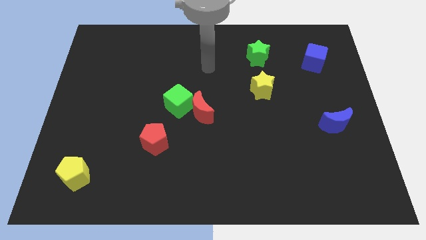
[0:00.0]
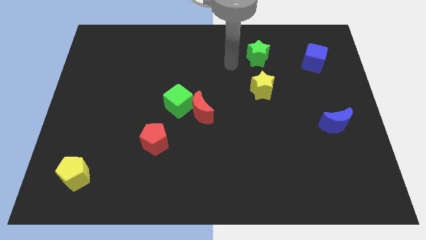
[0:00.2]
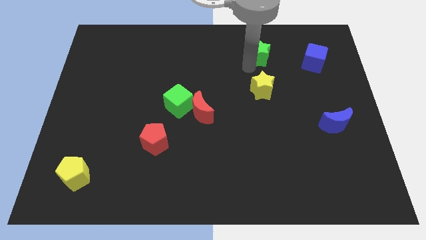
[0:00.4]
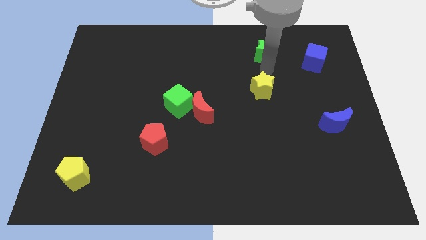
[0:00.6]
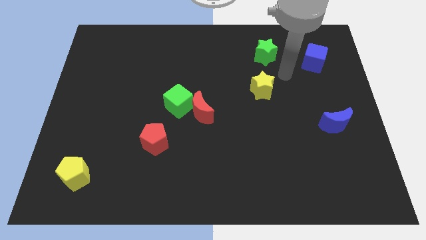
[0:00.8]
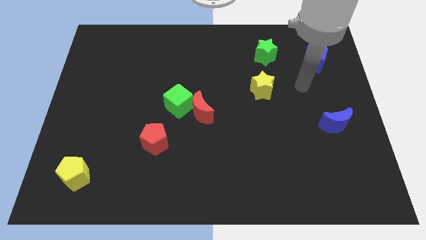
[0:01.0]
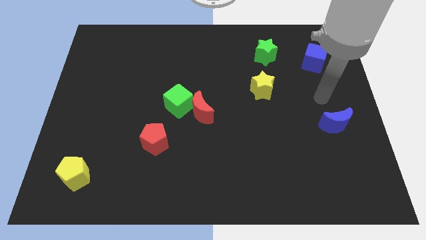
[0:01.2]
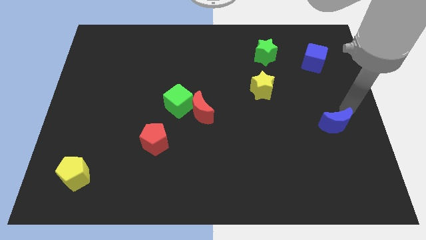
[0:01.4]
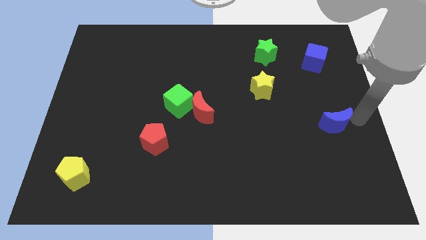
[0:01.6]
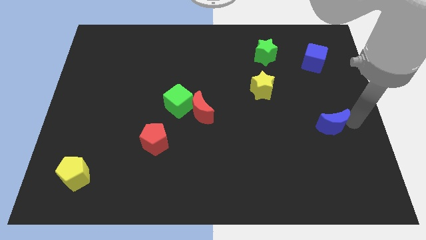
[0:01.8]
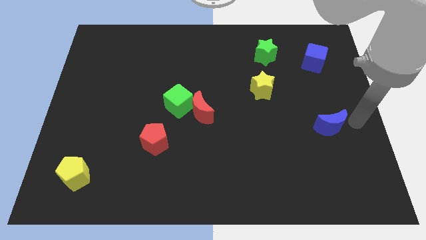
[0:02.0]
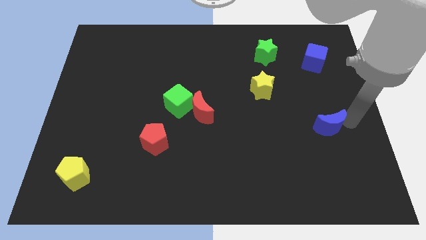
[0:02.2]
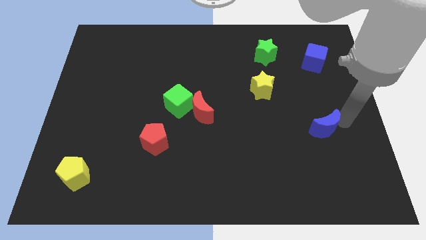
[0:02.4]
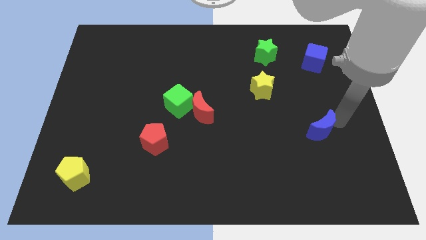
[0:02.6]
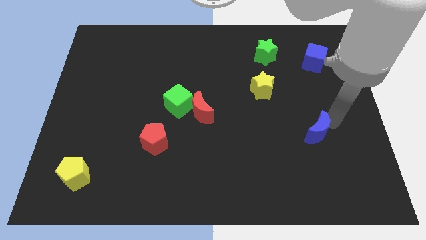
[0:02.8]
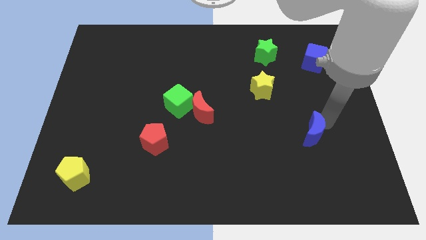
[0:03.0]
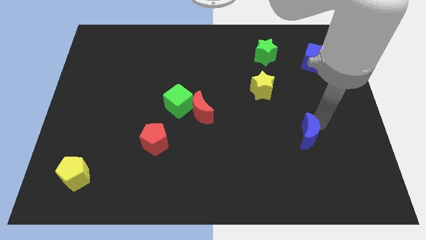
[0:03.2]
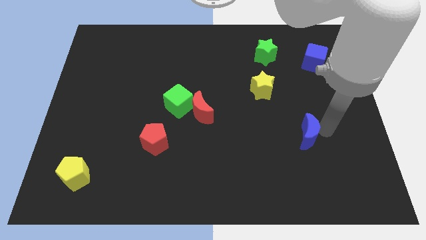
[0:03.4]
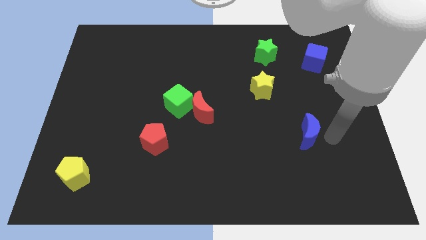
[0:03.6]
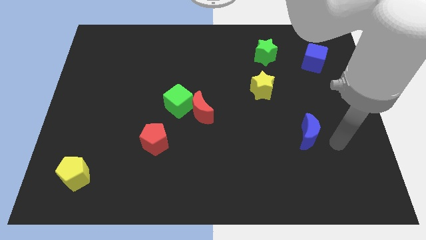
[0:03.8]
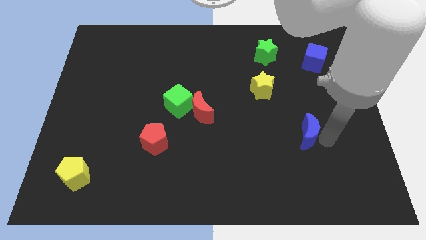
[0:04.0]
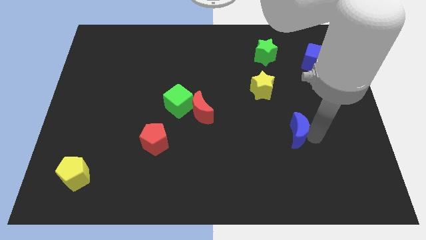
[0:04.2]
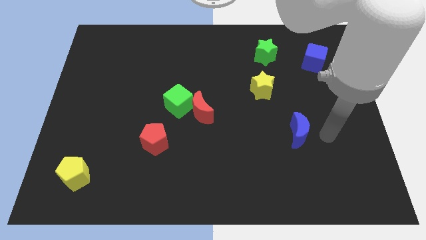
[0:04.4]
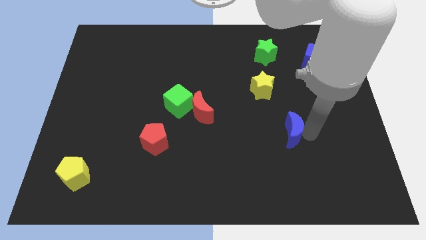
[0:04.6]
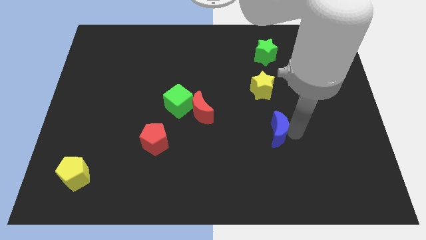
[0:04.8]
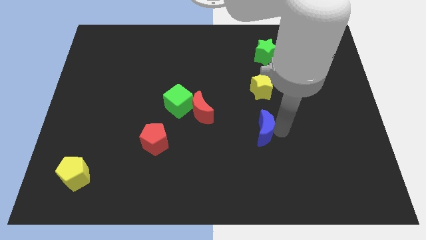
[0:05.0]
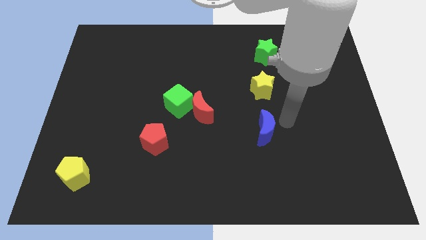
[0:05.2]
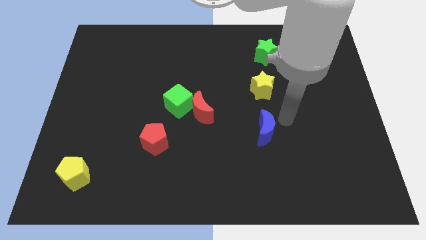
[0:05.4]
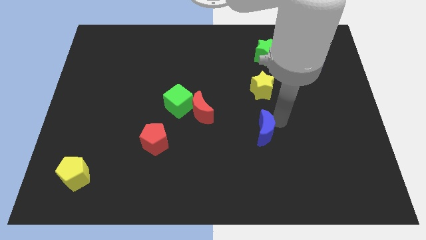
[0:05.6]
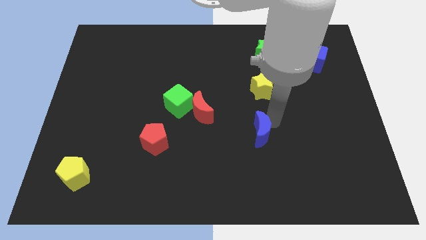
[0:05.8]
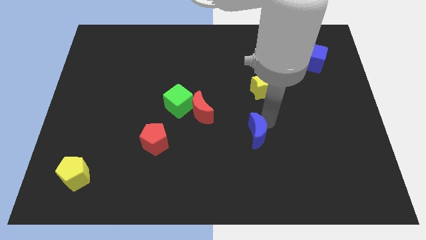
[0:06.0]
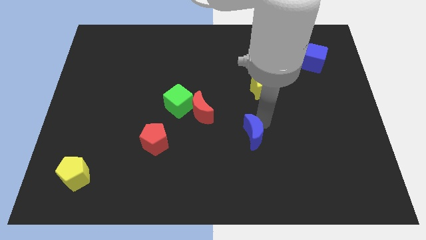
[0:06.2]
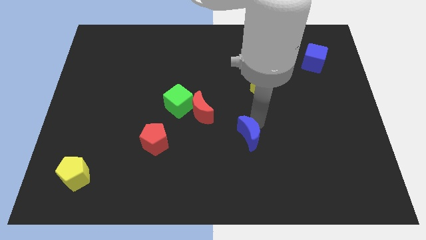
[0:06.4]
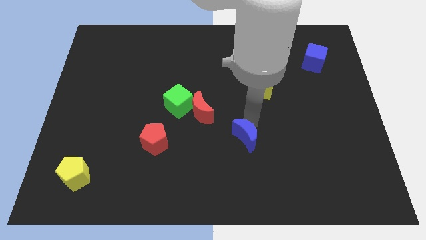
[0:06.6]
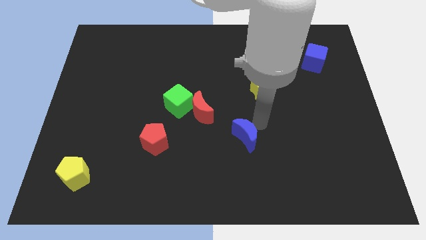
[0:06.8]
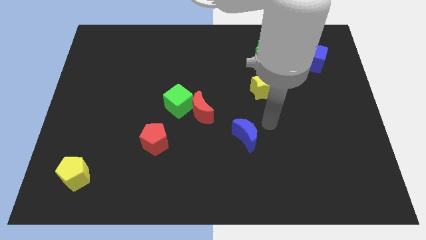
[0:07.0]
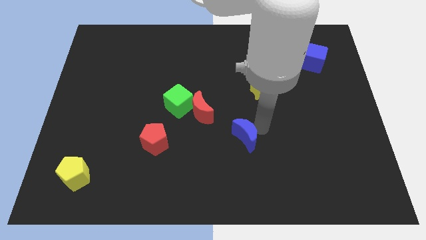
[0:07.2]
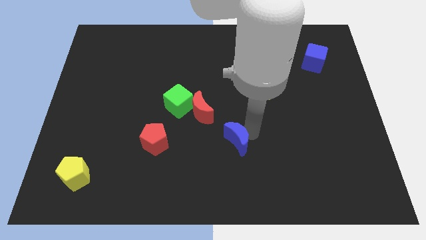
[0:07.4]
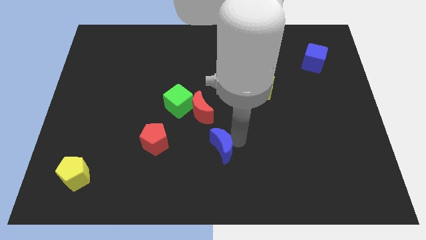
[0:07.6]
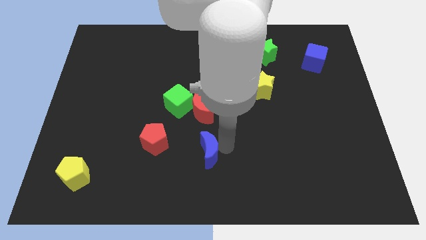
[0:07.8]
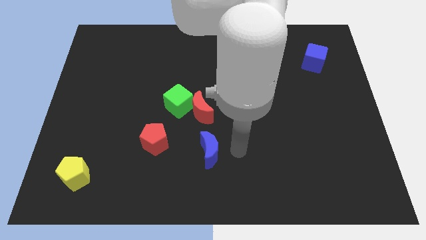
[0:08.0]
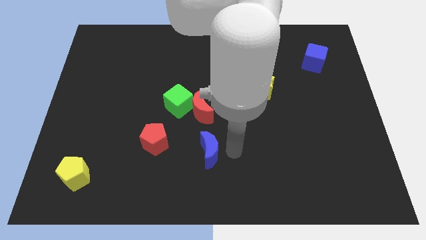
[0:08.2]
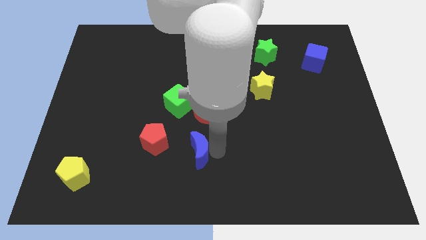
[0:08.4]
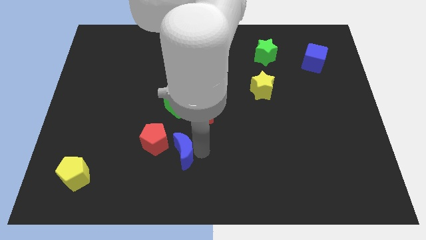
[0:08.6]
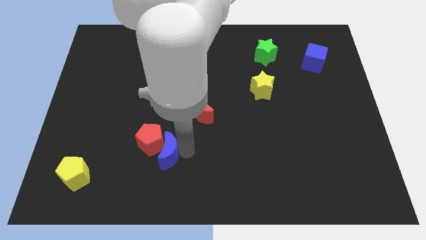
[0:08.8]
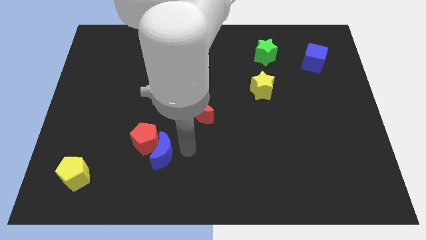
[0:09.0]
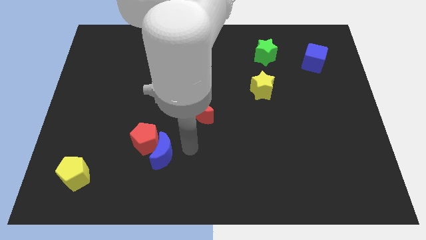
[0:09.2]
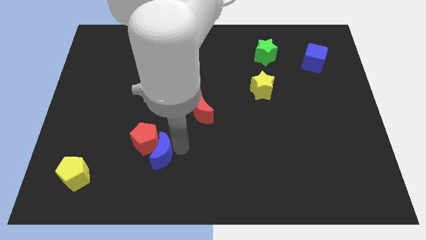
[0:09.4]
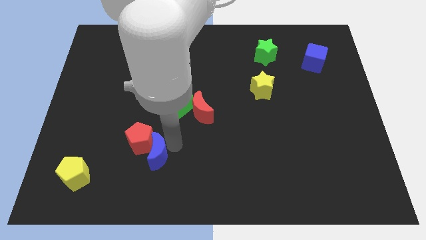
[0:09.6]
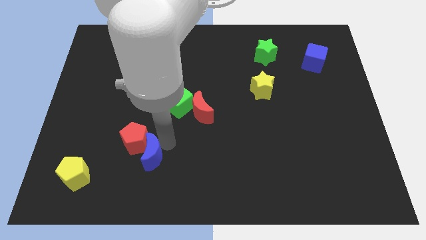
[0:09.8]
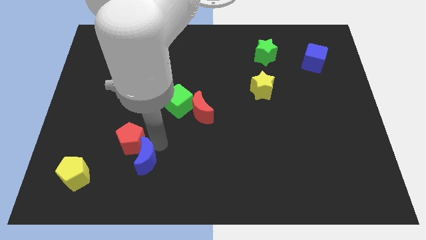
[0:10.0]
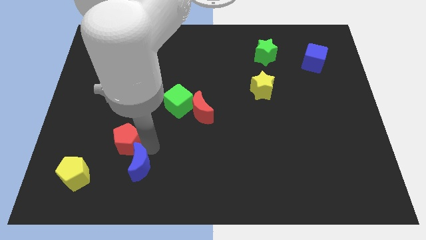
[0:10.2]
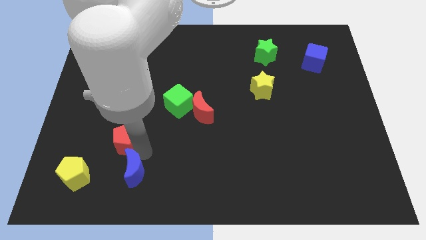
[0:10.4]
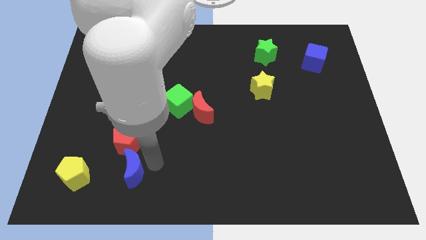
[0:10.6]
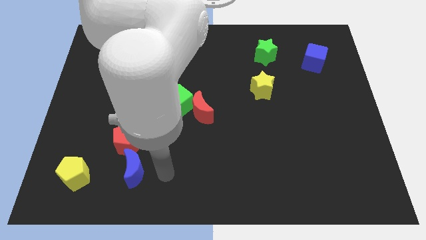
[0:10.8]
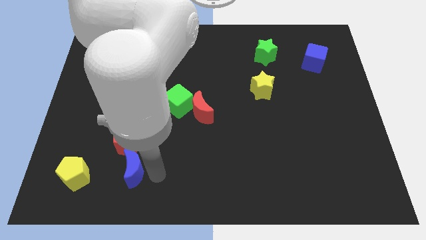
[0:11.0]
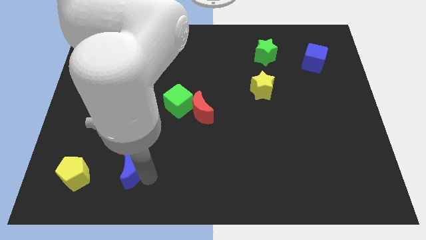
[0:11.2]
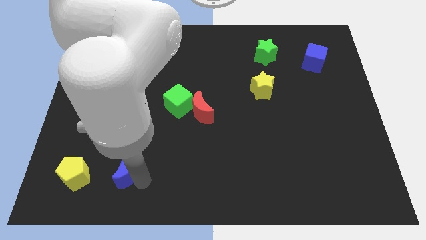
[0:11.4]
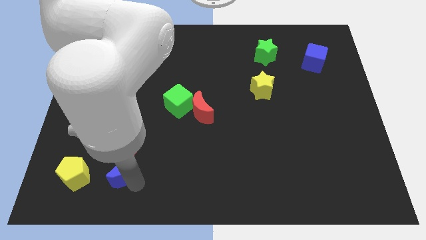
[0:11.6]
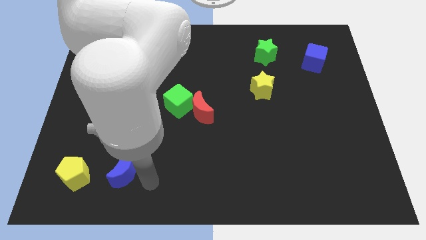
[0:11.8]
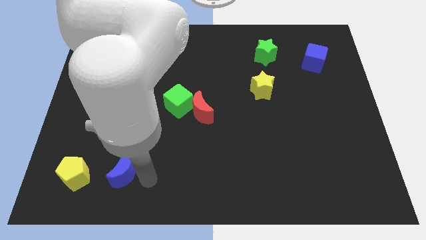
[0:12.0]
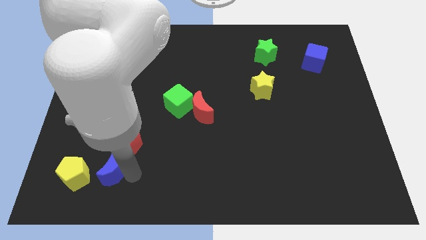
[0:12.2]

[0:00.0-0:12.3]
move the blue moon diagonally down and to the left of the red pentagon
